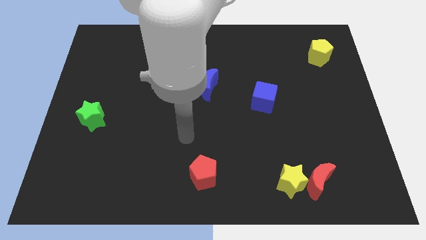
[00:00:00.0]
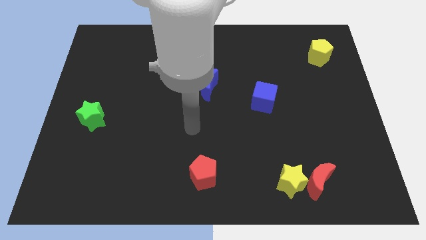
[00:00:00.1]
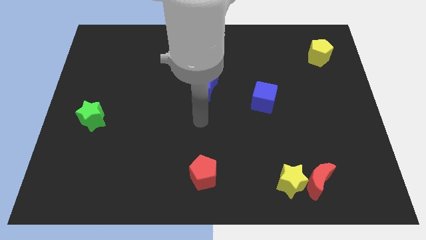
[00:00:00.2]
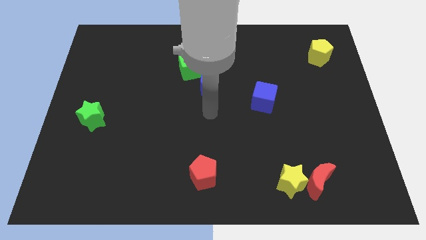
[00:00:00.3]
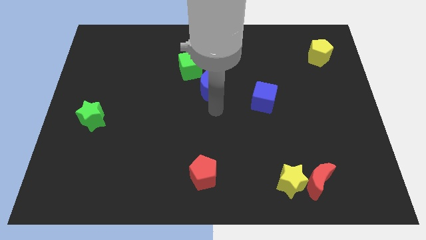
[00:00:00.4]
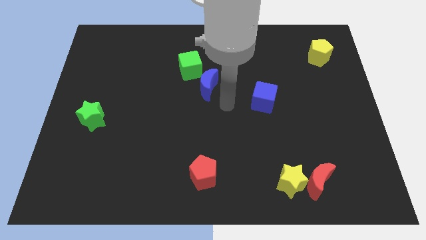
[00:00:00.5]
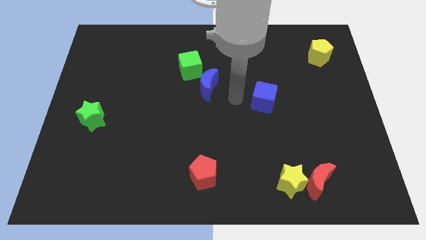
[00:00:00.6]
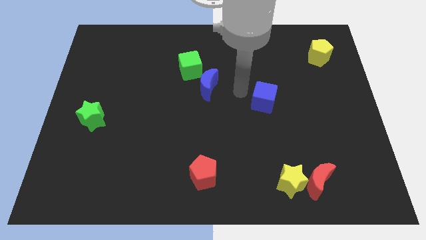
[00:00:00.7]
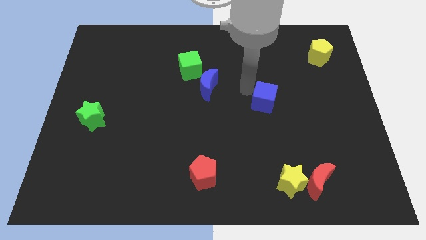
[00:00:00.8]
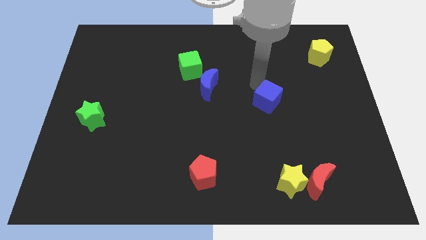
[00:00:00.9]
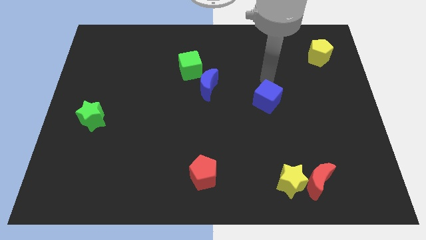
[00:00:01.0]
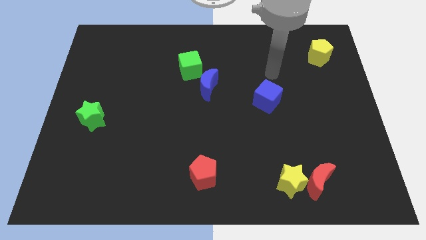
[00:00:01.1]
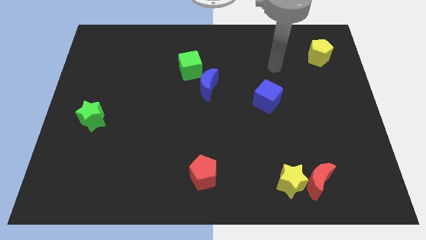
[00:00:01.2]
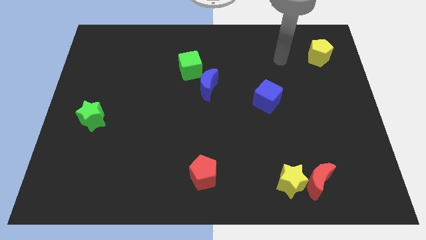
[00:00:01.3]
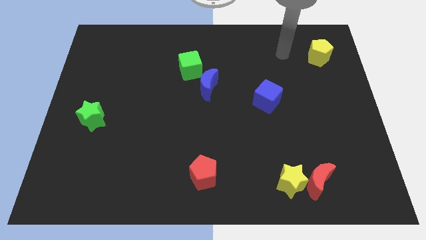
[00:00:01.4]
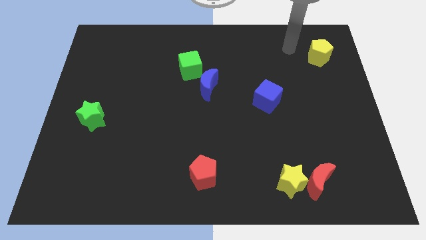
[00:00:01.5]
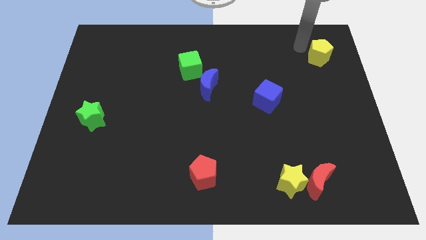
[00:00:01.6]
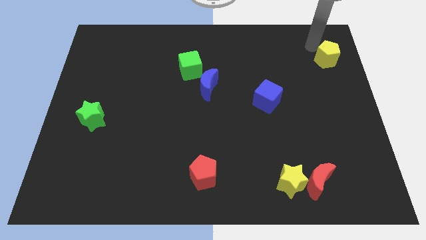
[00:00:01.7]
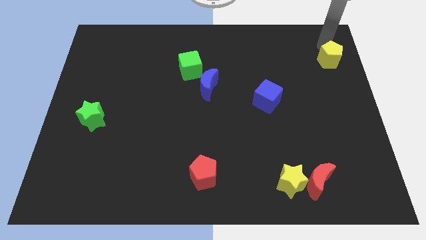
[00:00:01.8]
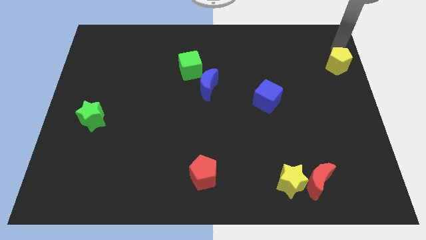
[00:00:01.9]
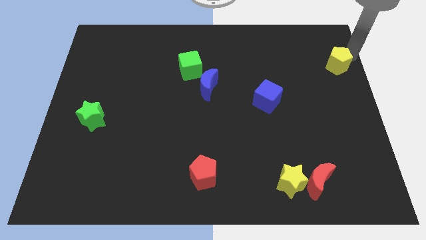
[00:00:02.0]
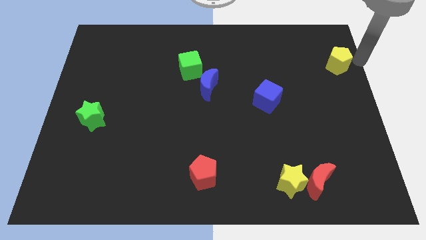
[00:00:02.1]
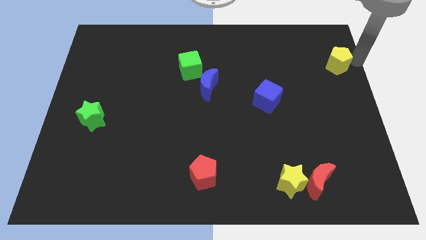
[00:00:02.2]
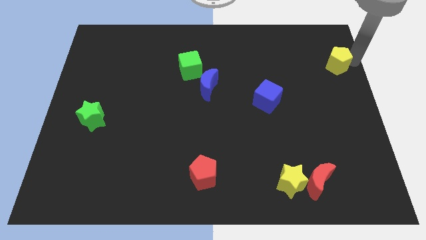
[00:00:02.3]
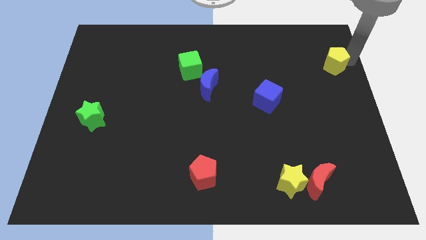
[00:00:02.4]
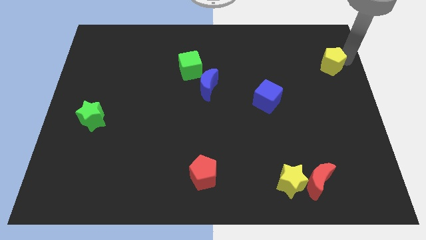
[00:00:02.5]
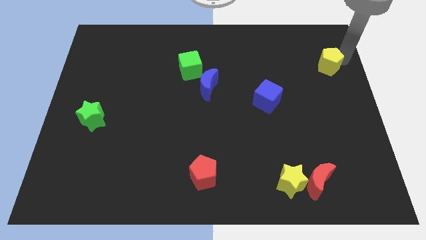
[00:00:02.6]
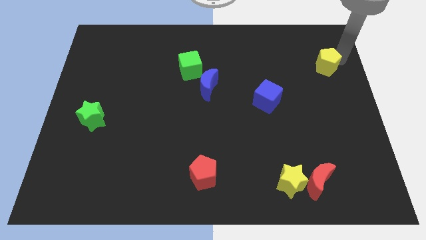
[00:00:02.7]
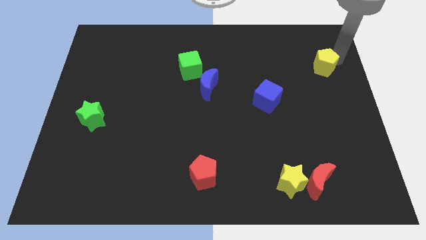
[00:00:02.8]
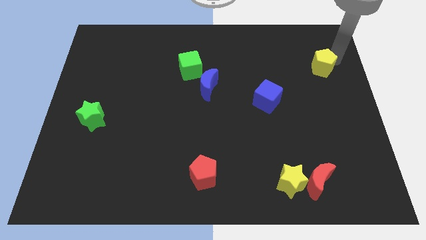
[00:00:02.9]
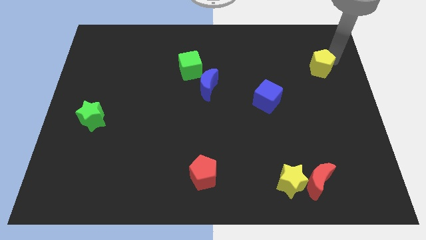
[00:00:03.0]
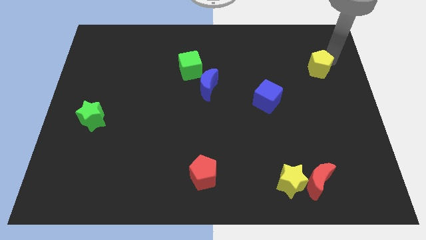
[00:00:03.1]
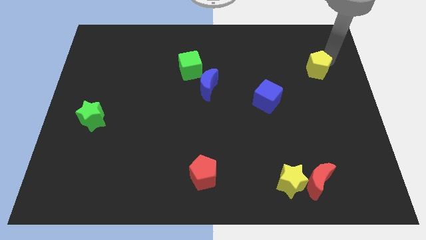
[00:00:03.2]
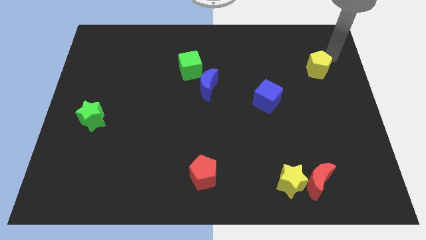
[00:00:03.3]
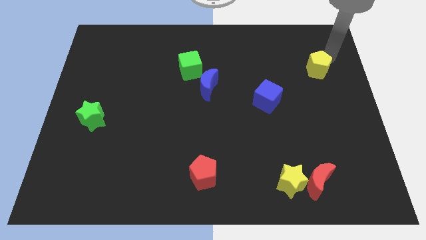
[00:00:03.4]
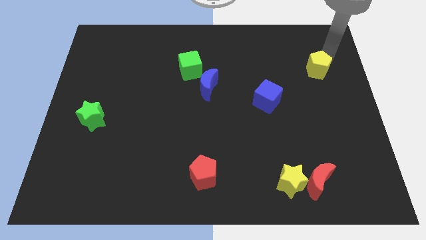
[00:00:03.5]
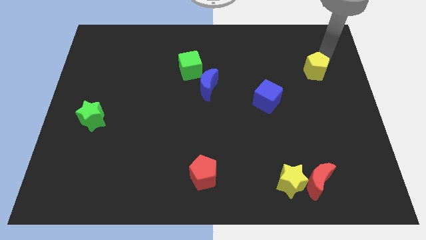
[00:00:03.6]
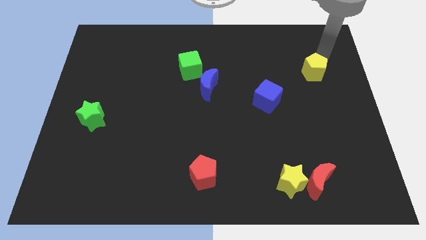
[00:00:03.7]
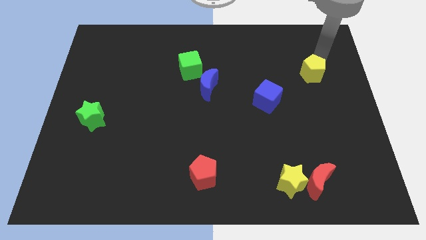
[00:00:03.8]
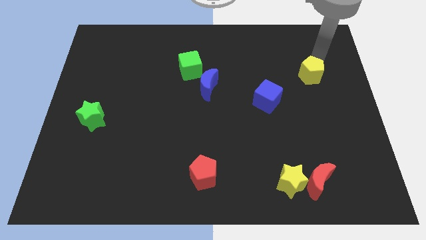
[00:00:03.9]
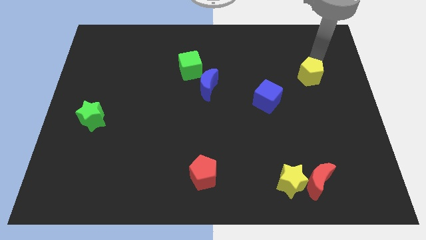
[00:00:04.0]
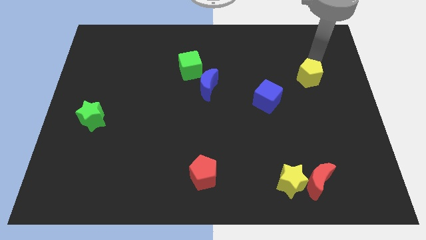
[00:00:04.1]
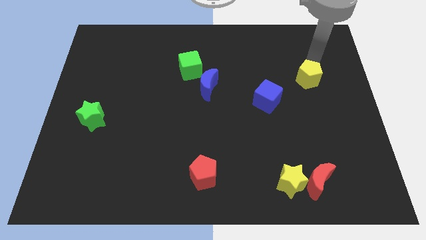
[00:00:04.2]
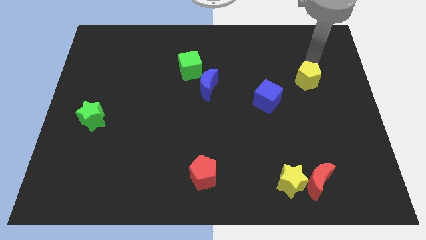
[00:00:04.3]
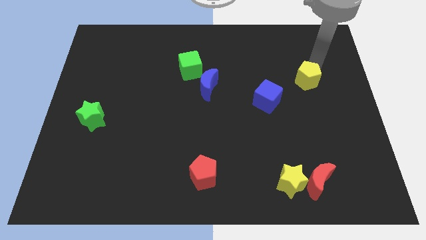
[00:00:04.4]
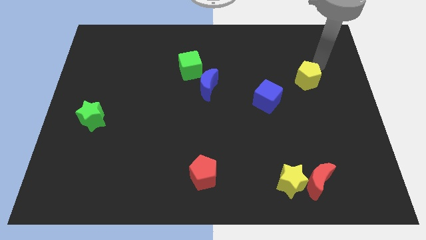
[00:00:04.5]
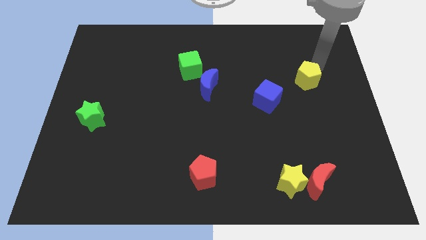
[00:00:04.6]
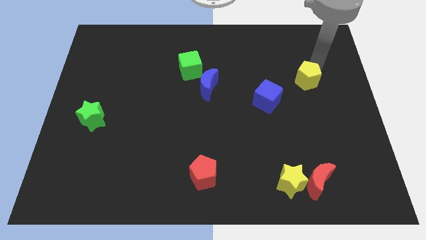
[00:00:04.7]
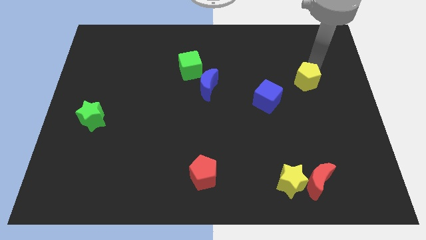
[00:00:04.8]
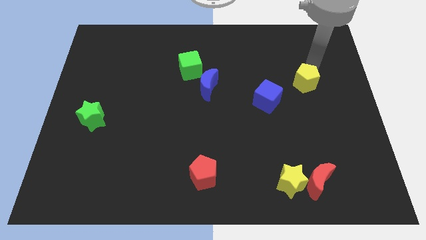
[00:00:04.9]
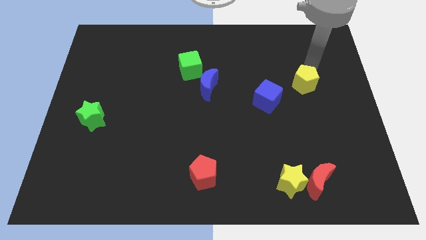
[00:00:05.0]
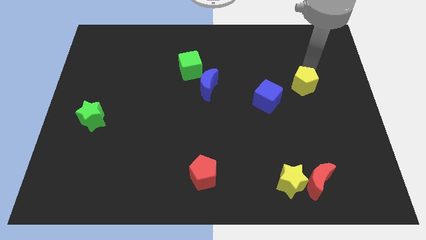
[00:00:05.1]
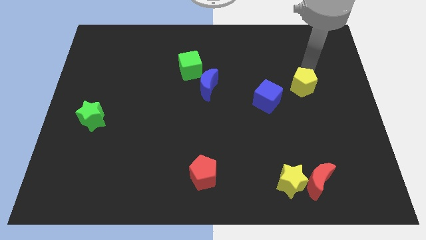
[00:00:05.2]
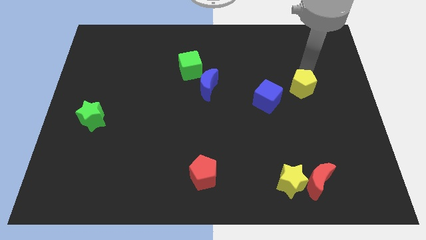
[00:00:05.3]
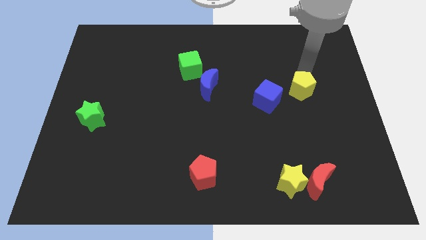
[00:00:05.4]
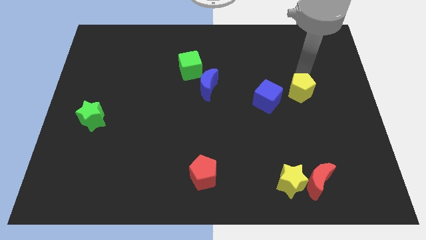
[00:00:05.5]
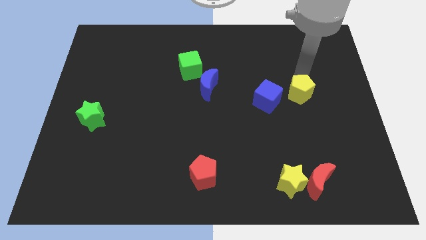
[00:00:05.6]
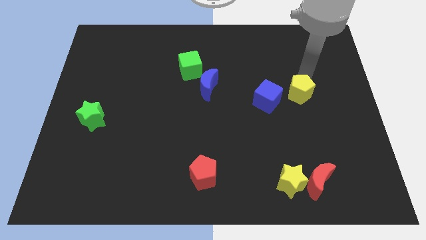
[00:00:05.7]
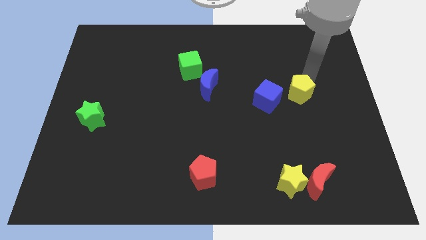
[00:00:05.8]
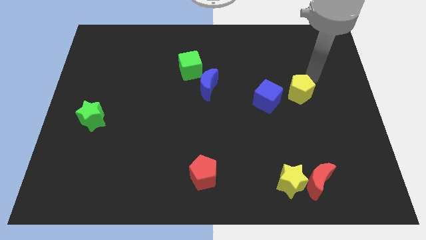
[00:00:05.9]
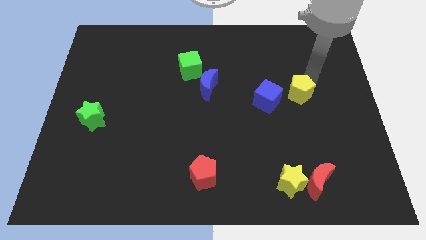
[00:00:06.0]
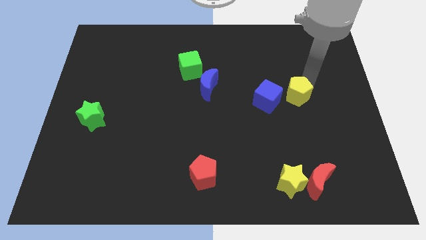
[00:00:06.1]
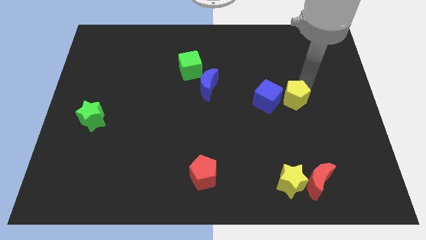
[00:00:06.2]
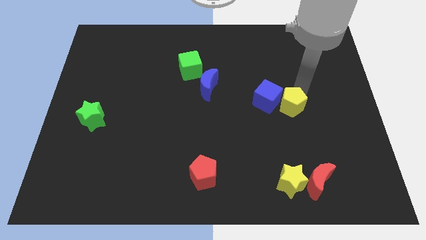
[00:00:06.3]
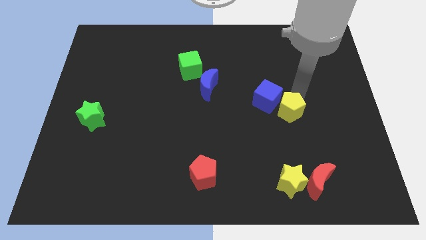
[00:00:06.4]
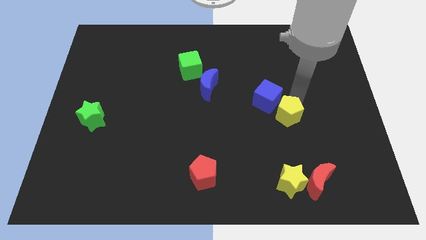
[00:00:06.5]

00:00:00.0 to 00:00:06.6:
push the yellow pentagon below the blue cube

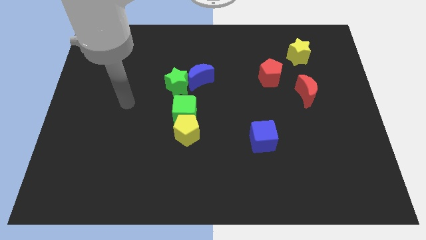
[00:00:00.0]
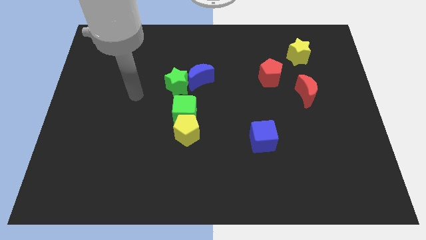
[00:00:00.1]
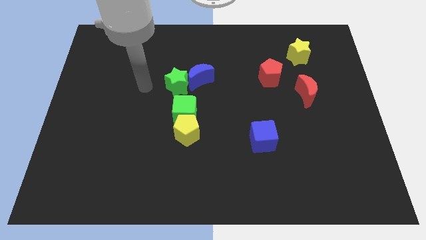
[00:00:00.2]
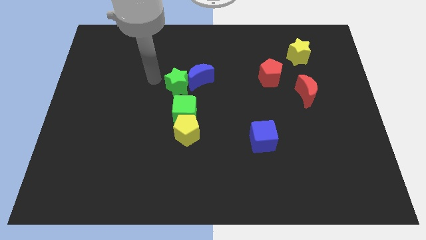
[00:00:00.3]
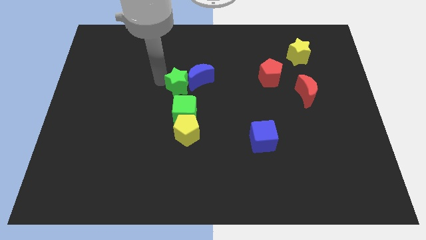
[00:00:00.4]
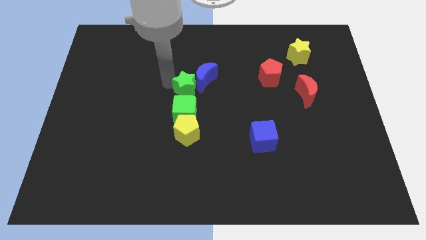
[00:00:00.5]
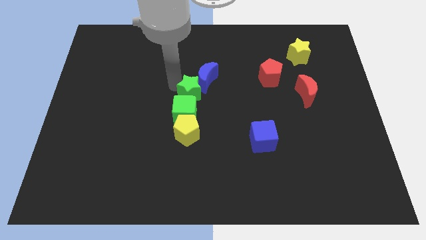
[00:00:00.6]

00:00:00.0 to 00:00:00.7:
slide the green star to the top right side of the green cube
